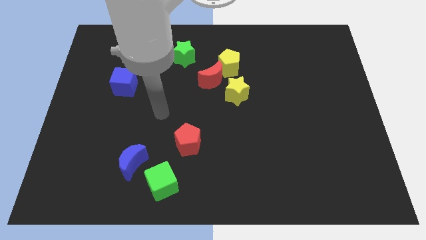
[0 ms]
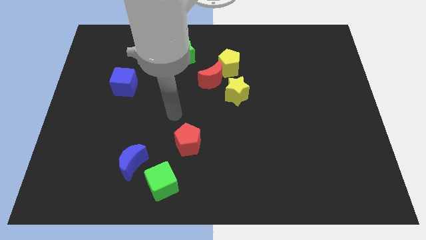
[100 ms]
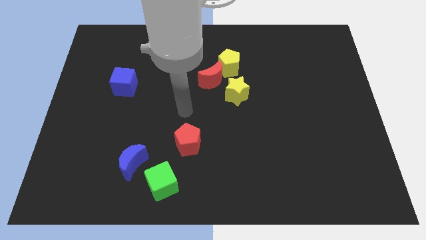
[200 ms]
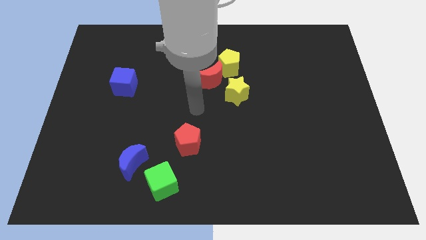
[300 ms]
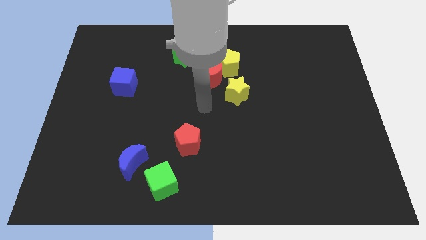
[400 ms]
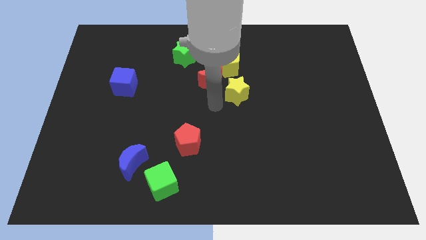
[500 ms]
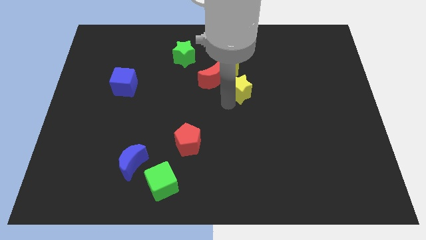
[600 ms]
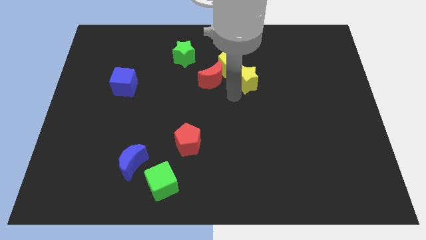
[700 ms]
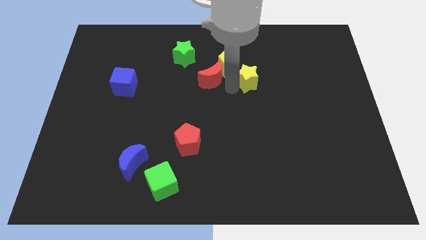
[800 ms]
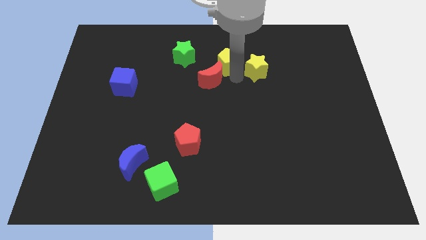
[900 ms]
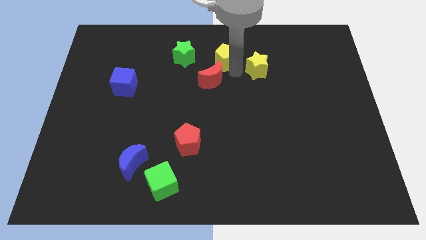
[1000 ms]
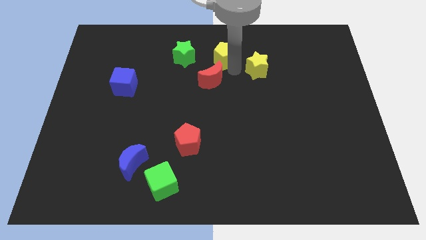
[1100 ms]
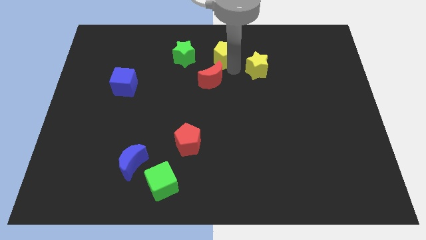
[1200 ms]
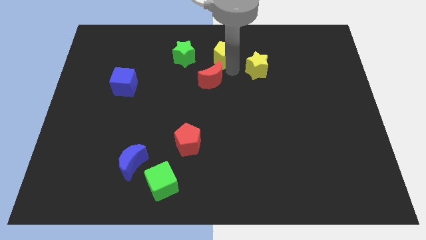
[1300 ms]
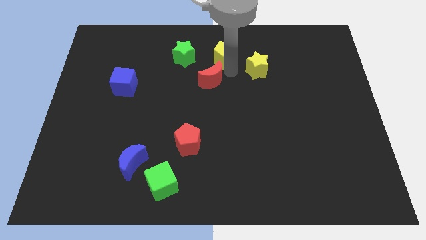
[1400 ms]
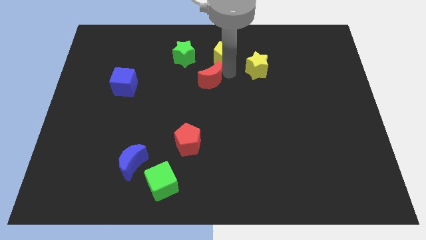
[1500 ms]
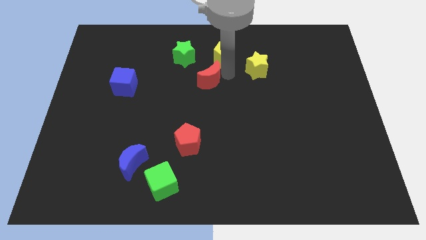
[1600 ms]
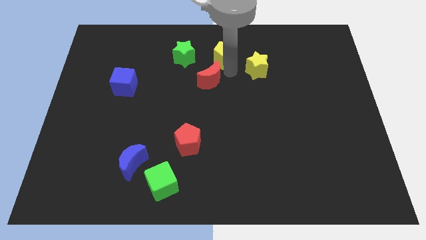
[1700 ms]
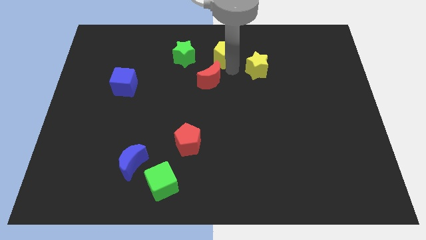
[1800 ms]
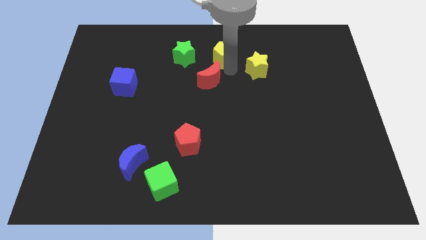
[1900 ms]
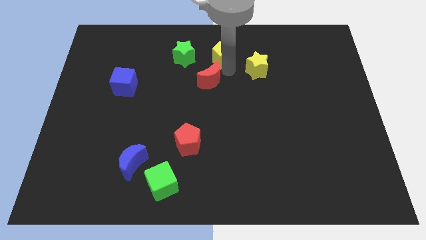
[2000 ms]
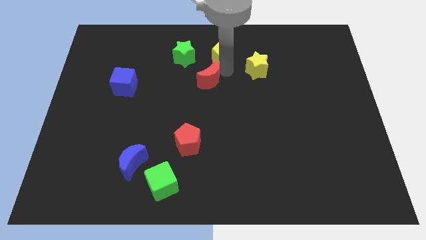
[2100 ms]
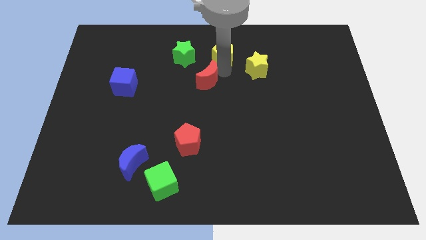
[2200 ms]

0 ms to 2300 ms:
pull the red moon apart from the yellow pentagon and yellow star

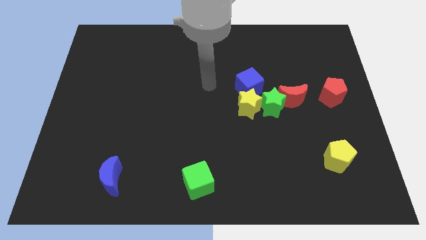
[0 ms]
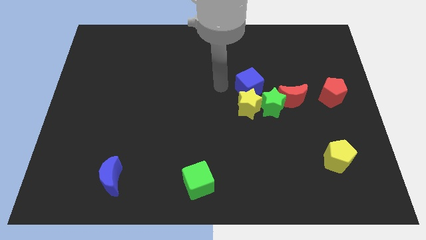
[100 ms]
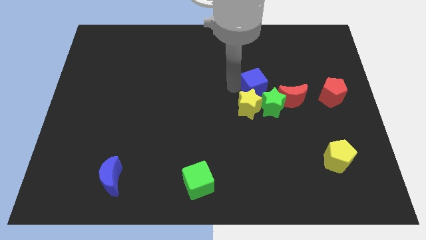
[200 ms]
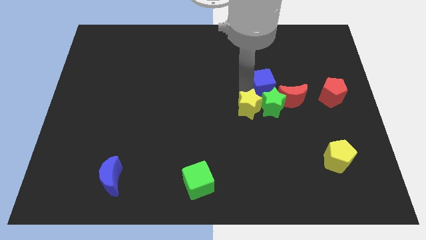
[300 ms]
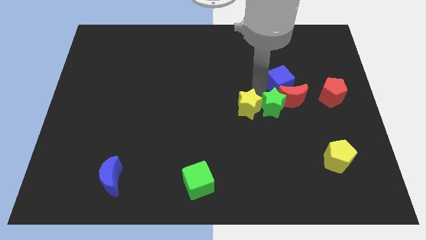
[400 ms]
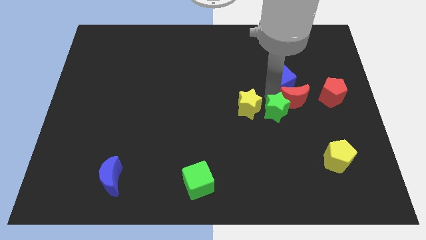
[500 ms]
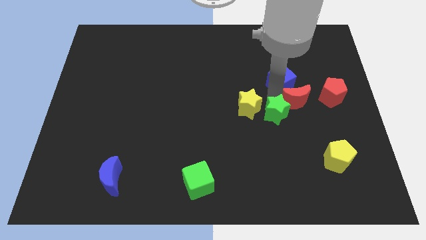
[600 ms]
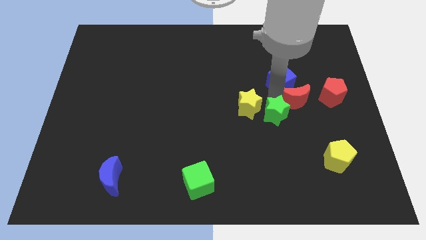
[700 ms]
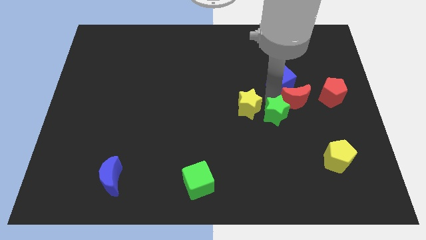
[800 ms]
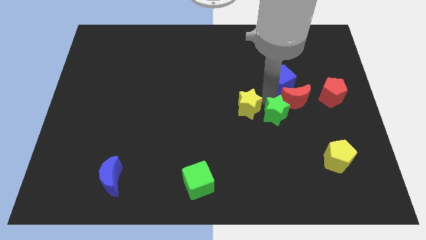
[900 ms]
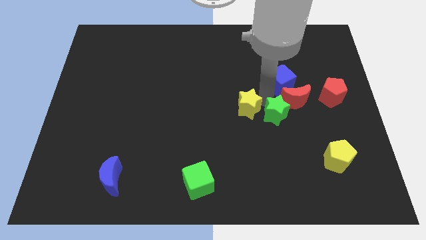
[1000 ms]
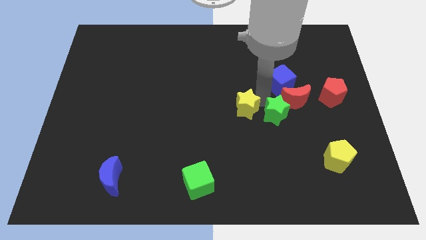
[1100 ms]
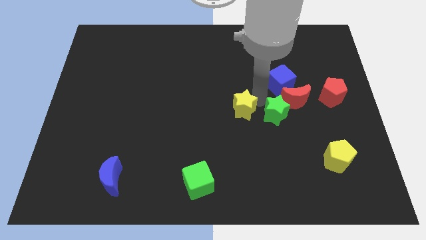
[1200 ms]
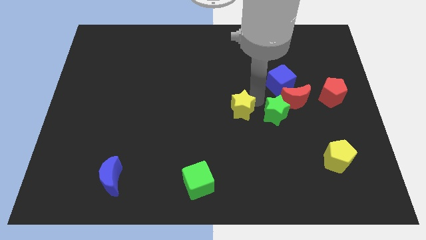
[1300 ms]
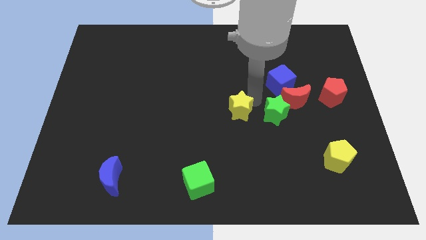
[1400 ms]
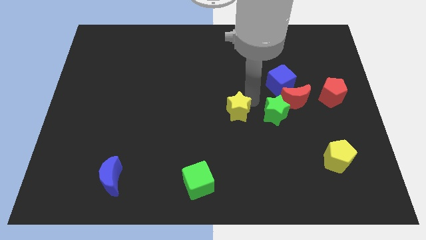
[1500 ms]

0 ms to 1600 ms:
pull the yellow star apart from the green star and blue cube

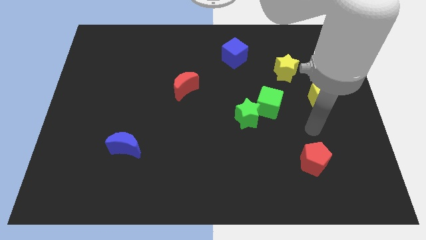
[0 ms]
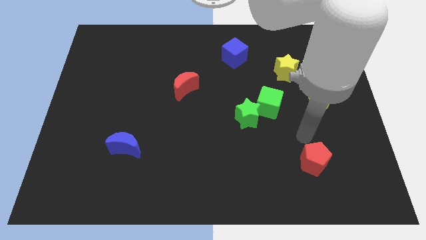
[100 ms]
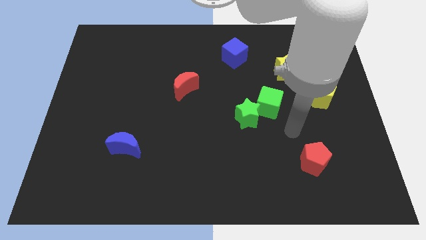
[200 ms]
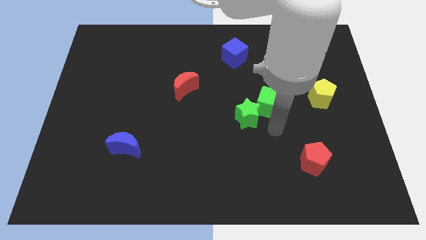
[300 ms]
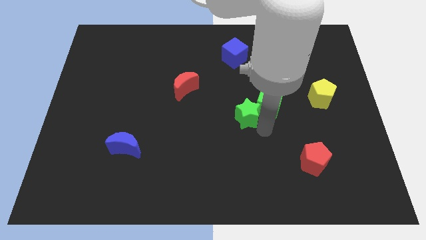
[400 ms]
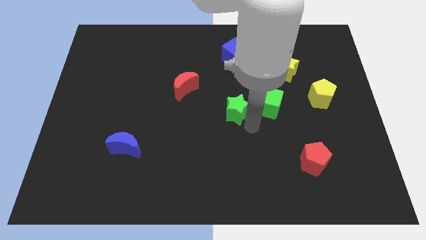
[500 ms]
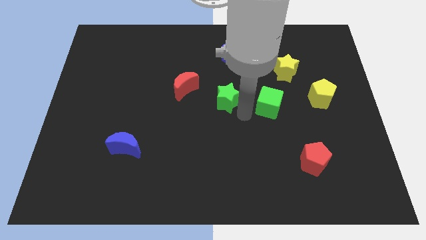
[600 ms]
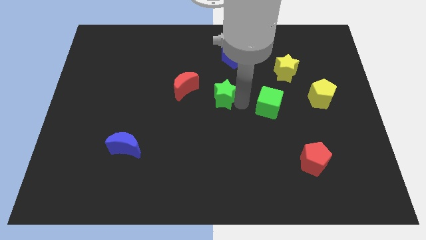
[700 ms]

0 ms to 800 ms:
separate the green cube from the green star

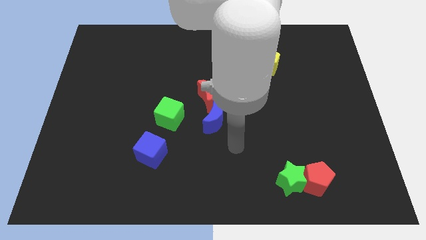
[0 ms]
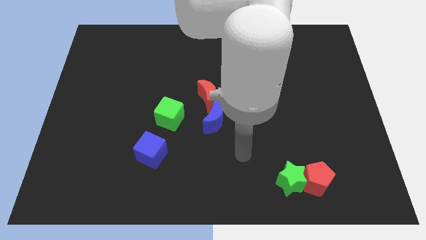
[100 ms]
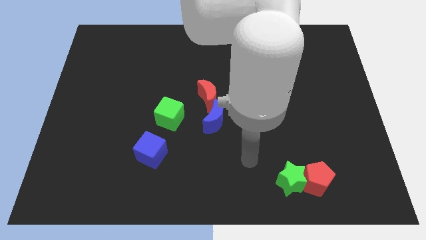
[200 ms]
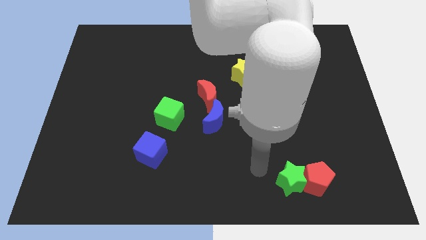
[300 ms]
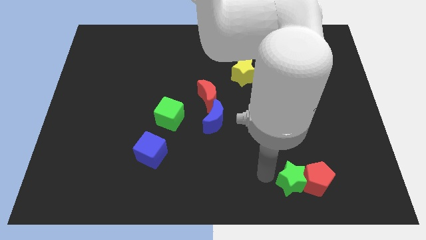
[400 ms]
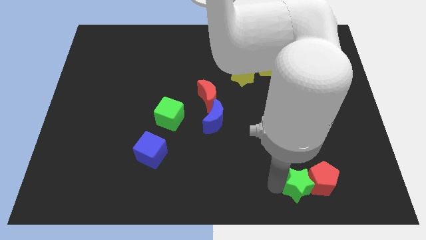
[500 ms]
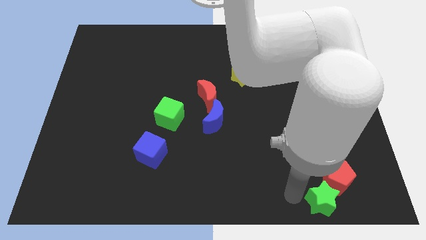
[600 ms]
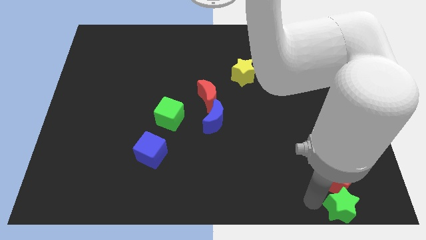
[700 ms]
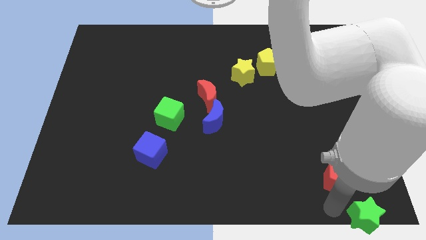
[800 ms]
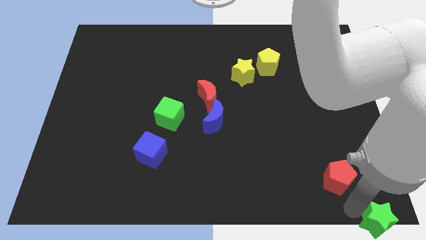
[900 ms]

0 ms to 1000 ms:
separate the red pentagon from the green star

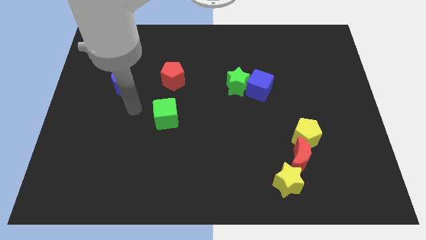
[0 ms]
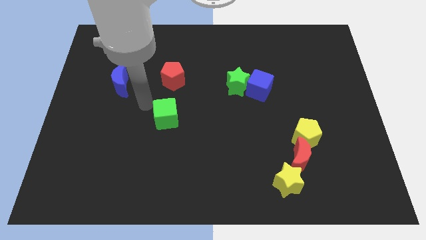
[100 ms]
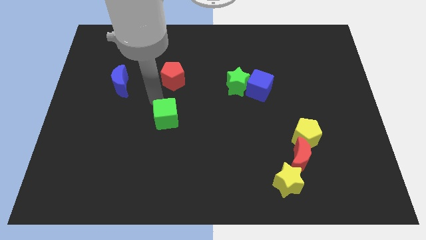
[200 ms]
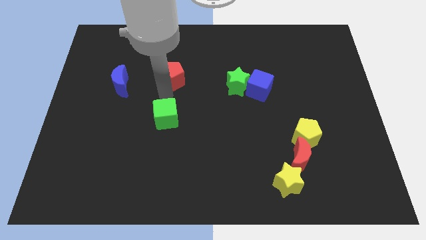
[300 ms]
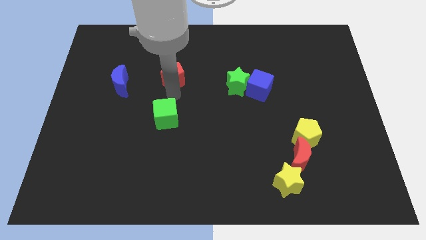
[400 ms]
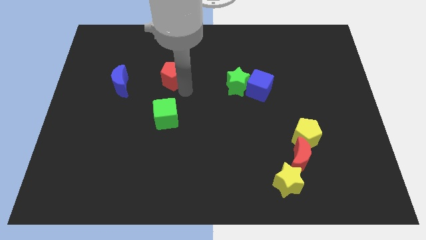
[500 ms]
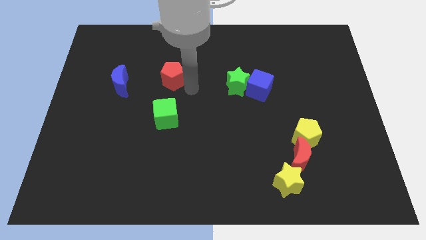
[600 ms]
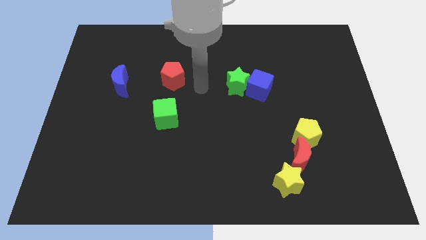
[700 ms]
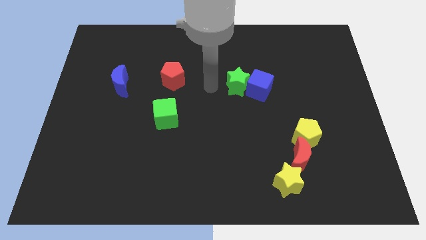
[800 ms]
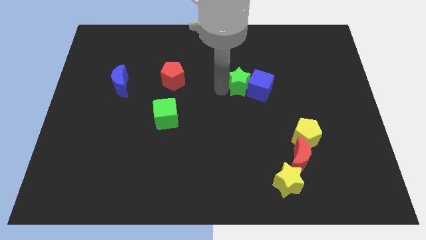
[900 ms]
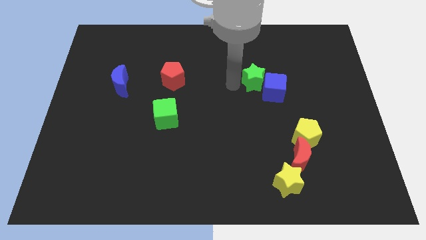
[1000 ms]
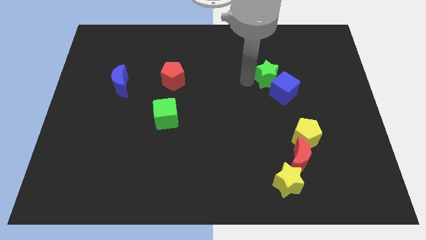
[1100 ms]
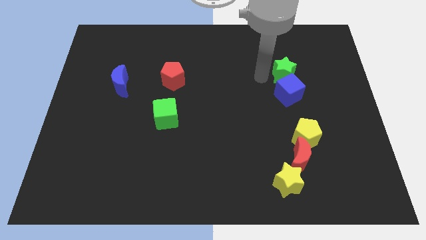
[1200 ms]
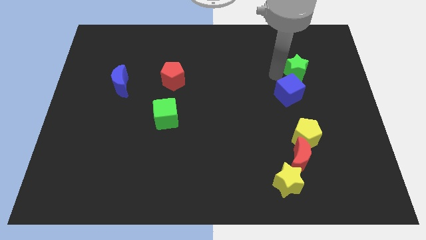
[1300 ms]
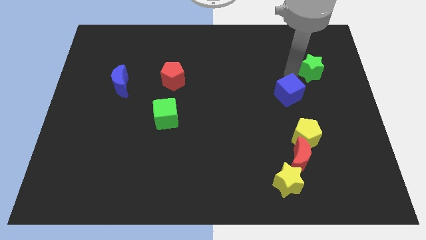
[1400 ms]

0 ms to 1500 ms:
move the blue cube away from the green star

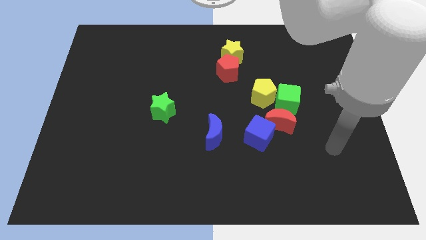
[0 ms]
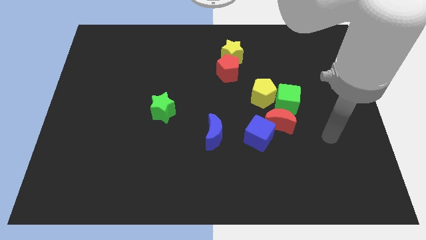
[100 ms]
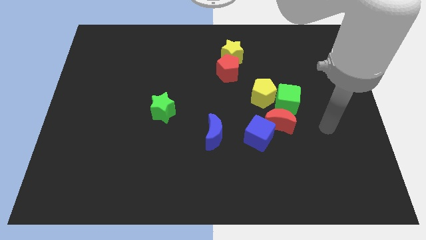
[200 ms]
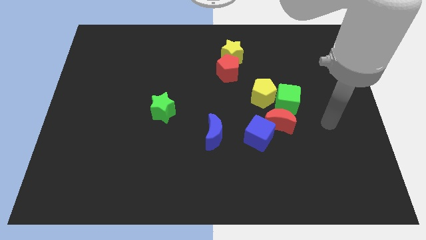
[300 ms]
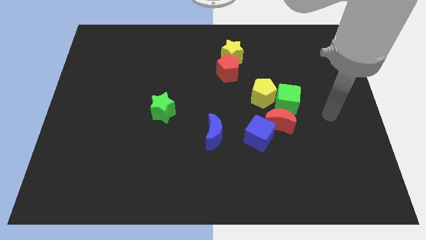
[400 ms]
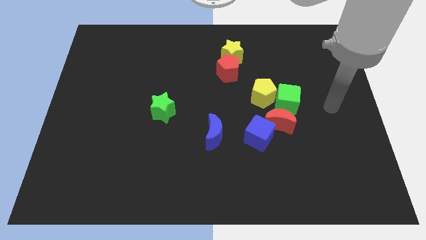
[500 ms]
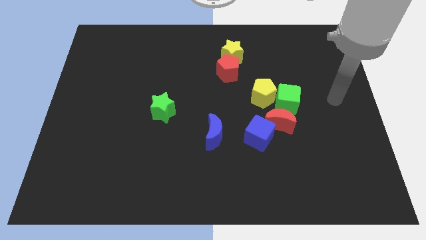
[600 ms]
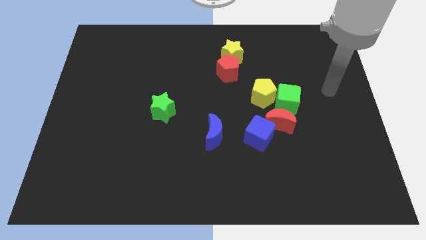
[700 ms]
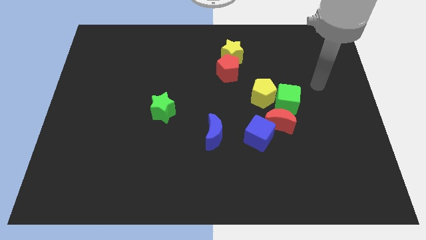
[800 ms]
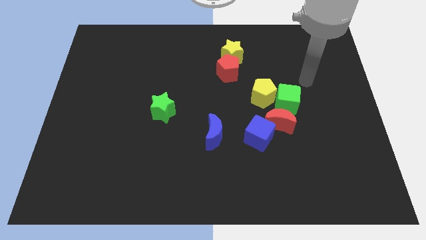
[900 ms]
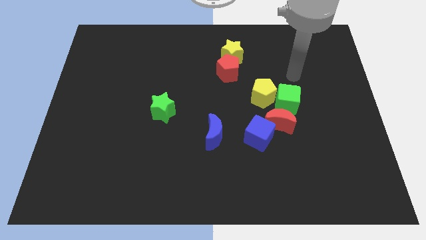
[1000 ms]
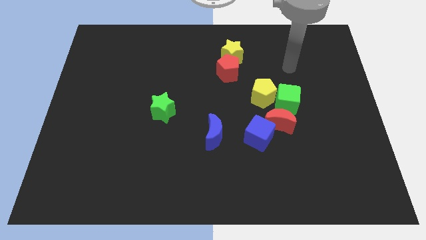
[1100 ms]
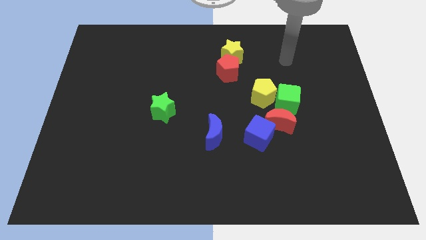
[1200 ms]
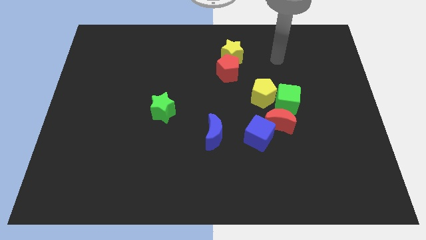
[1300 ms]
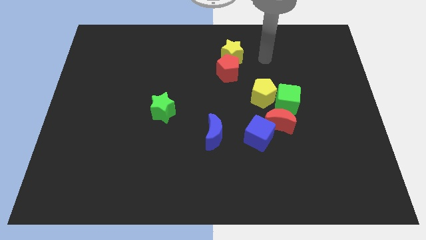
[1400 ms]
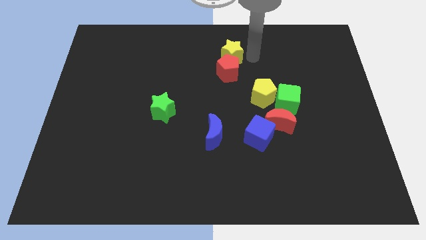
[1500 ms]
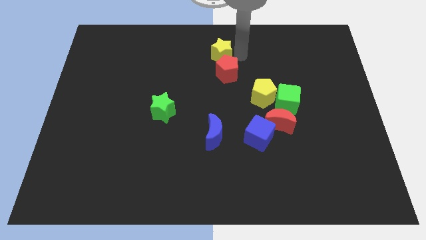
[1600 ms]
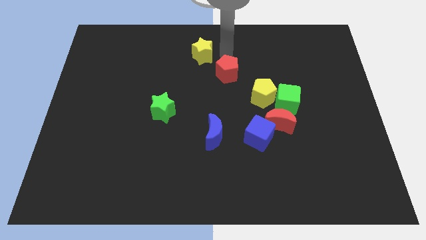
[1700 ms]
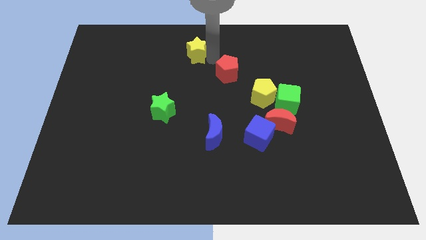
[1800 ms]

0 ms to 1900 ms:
separate the red pentagon from the yellow star

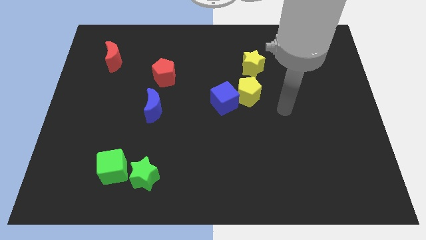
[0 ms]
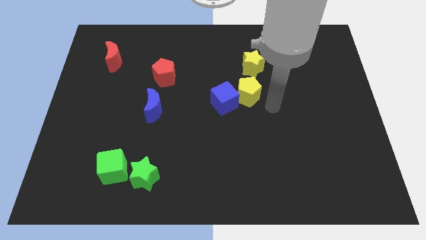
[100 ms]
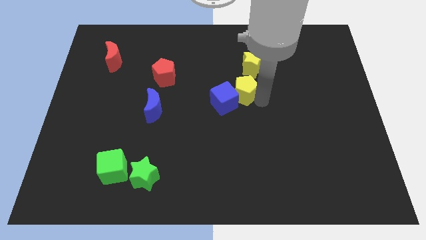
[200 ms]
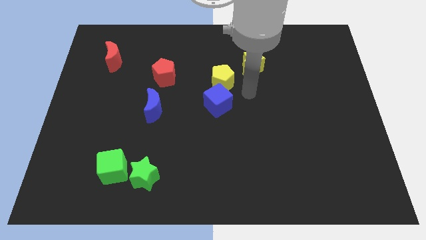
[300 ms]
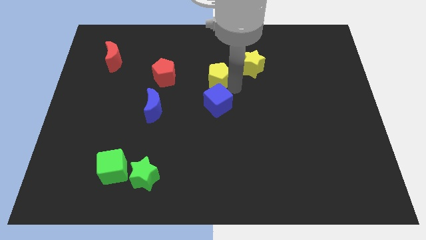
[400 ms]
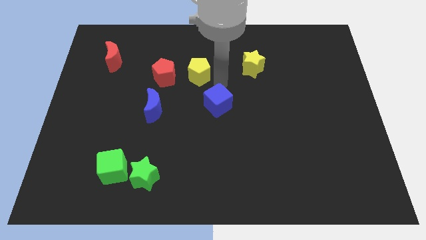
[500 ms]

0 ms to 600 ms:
move the blue cube away from the yellow pentagon
